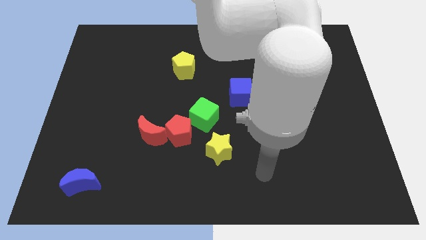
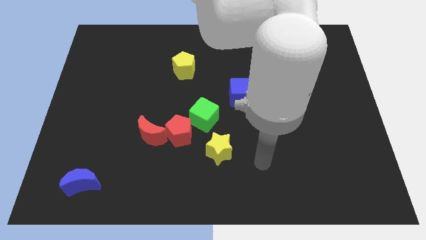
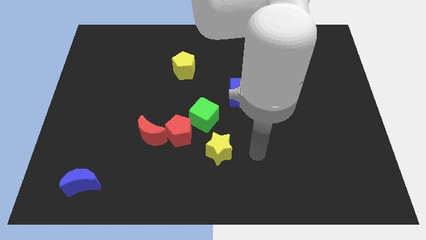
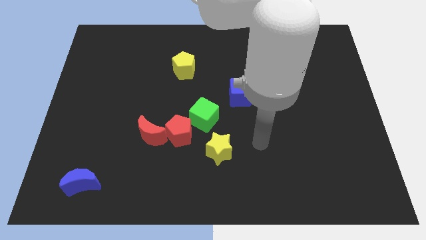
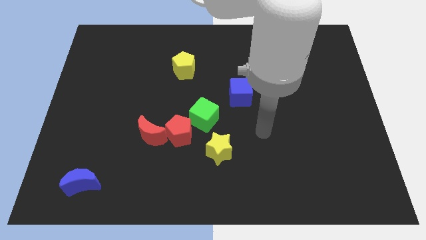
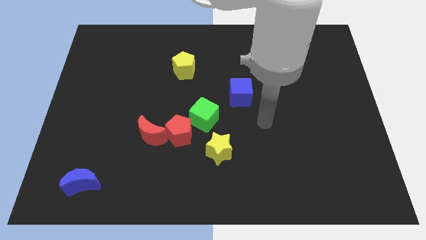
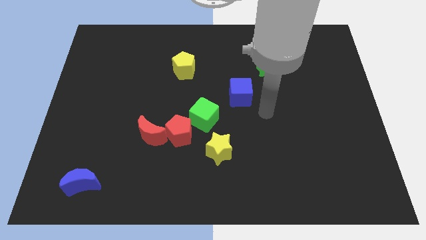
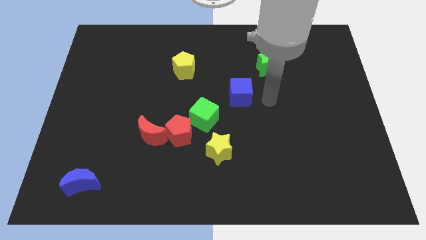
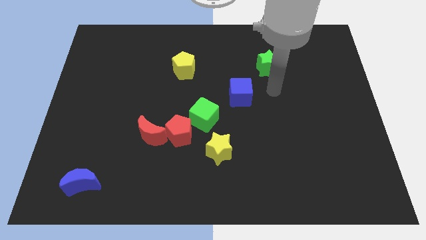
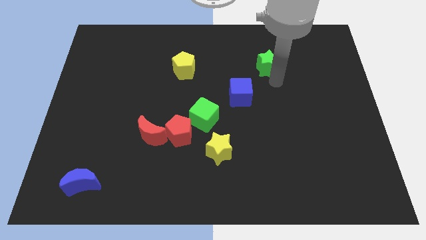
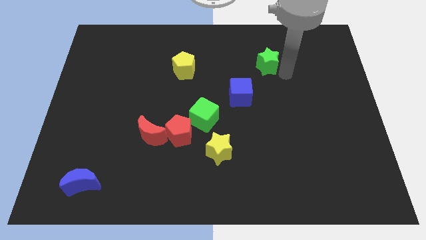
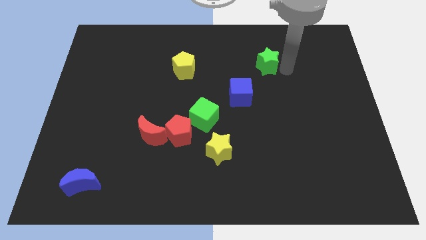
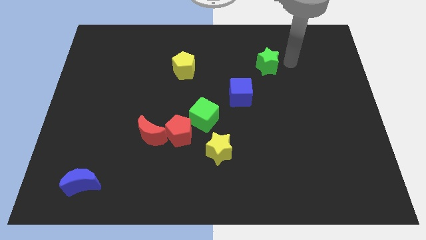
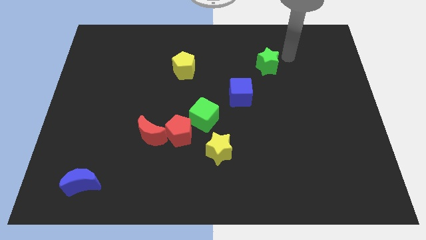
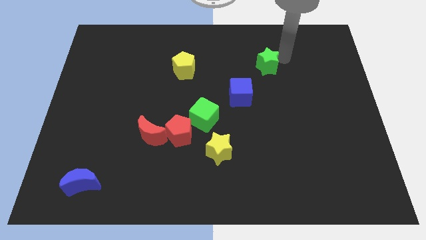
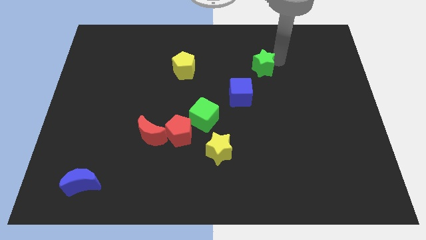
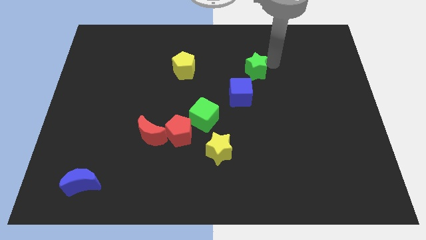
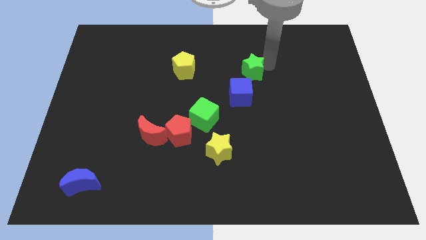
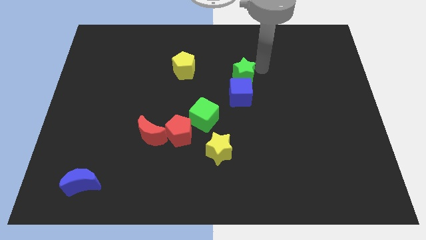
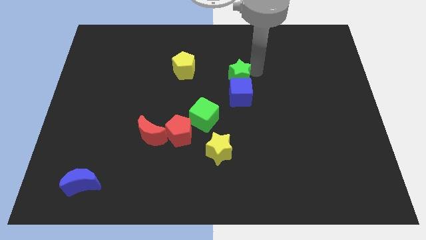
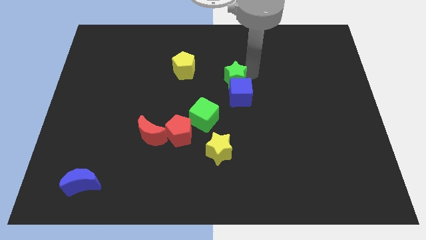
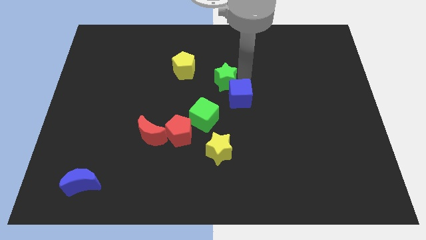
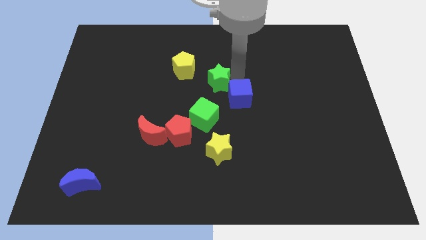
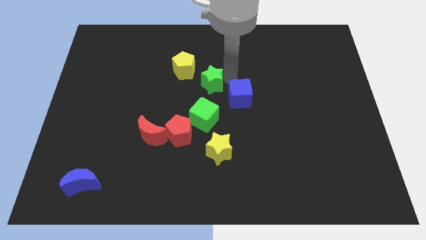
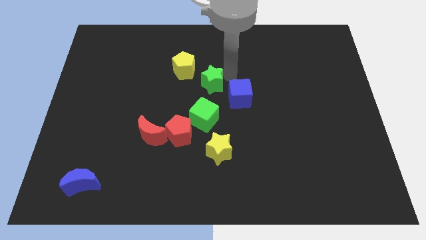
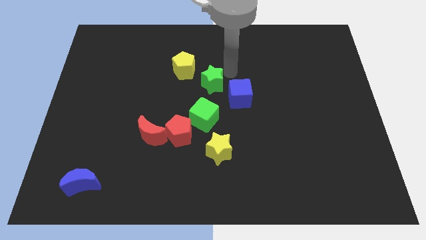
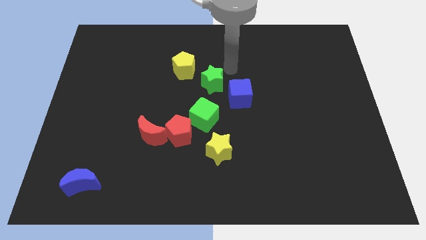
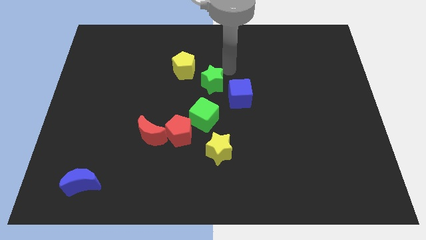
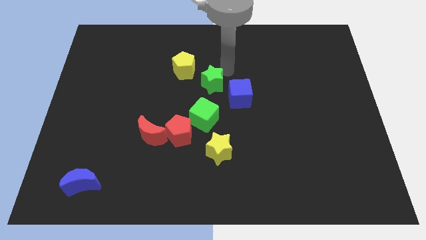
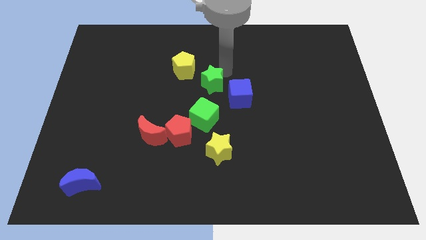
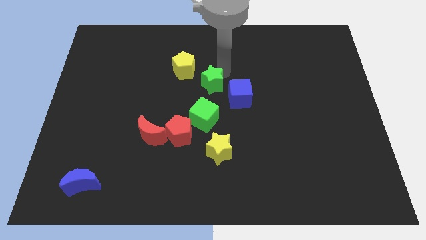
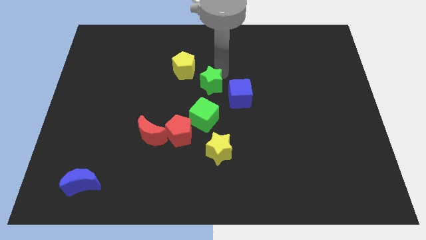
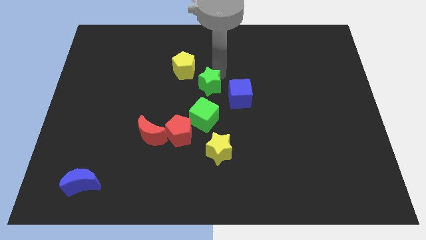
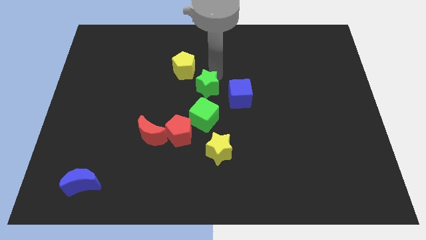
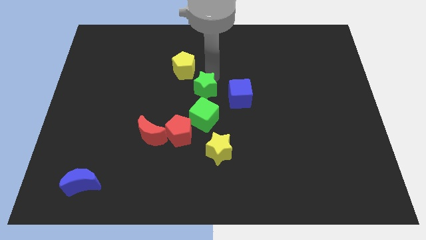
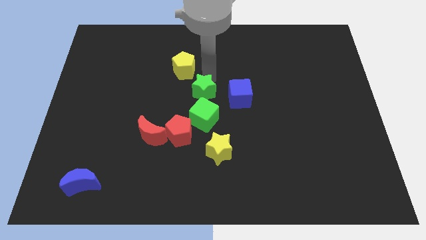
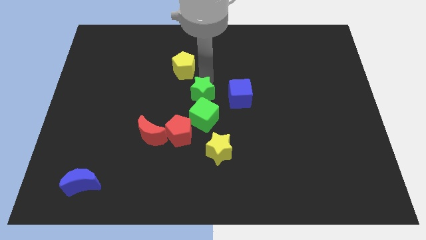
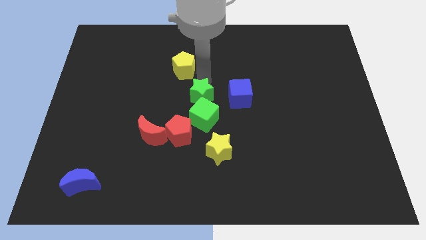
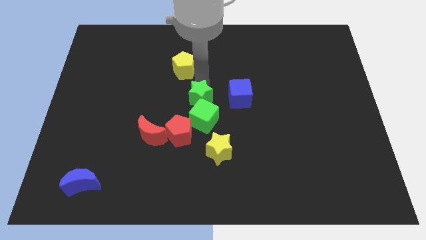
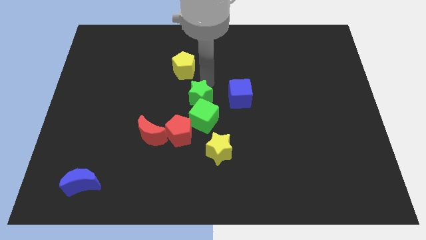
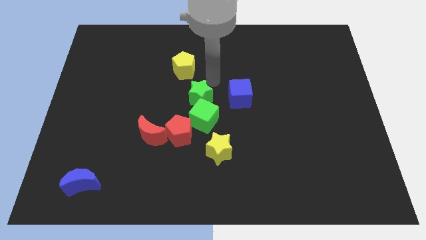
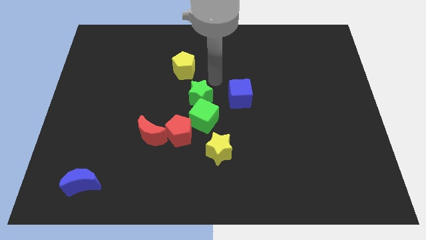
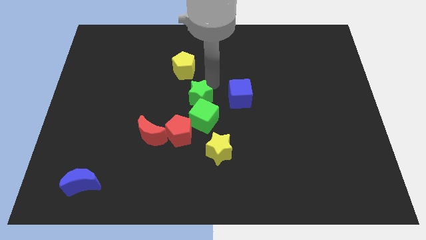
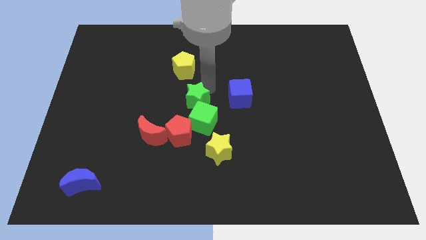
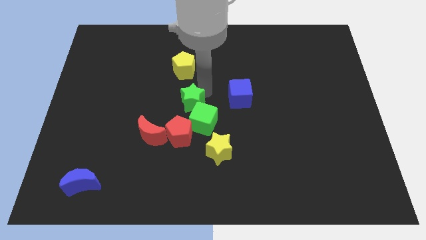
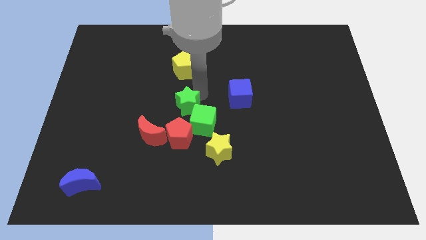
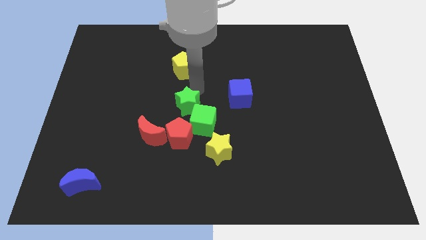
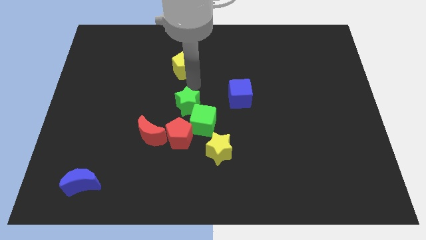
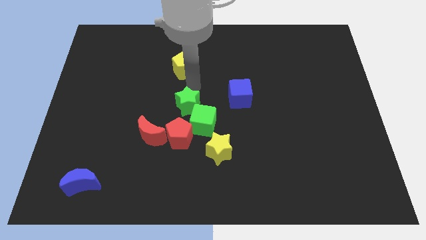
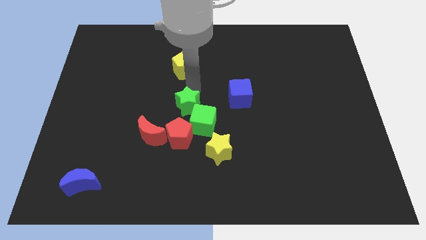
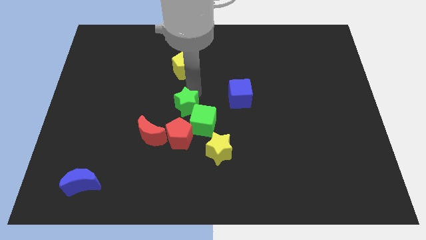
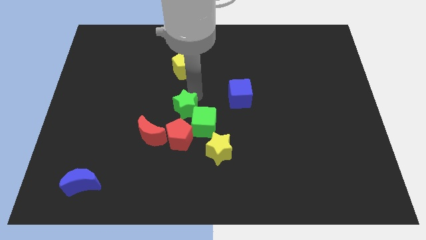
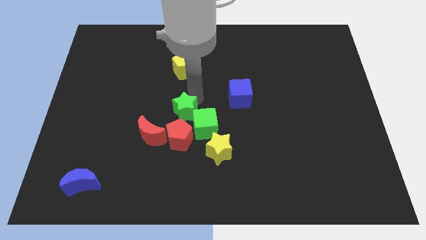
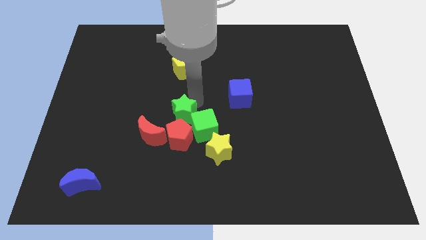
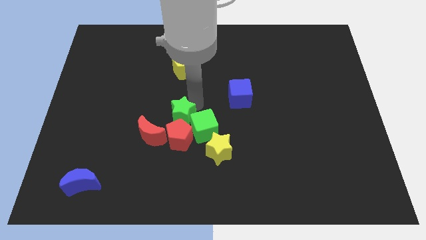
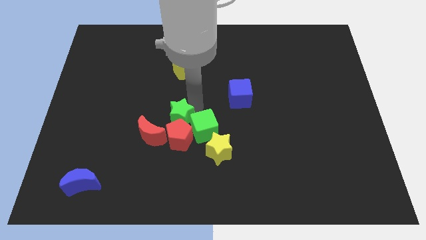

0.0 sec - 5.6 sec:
put the green star to the red pentagon

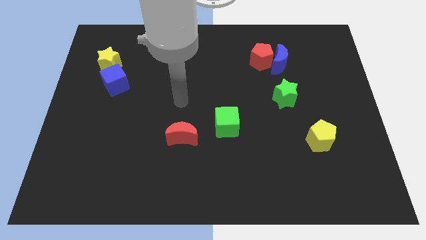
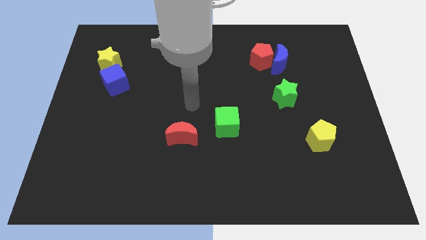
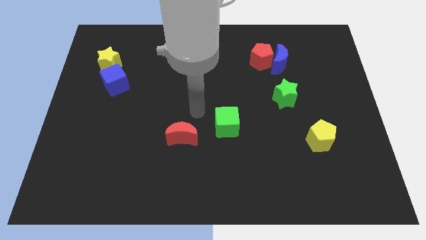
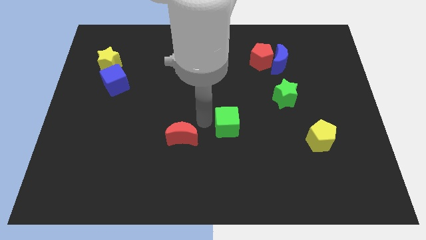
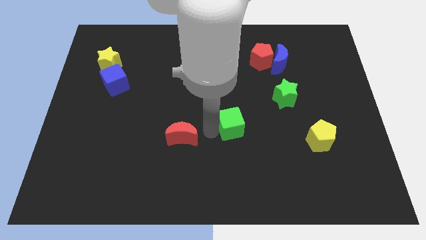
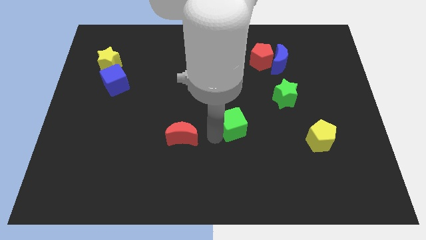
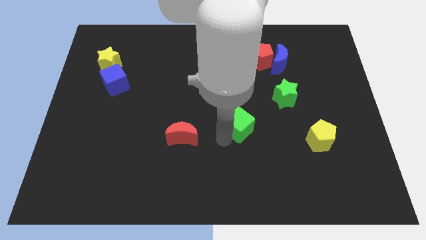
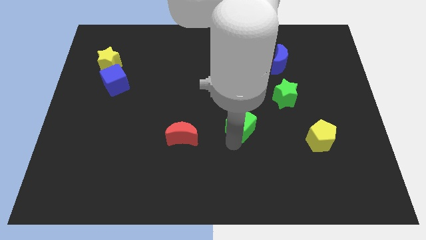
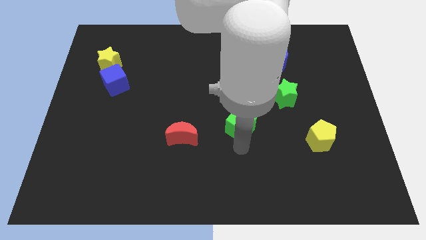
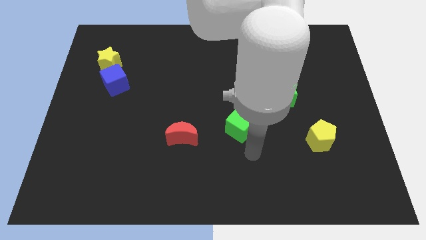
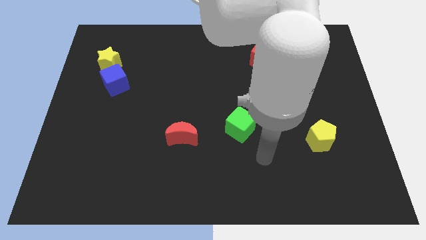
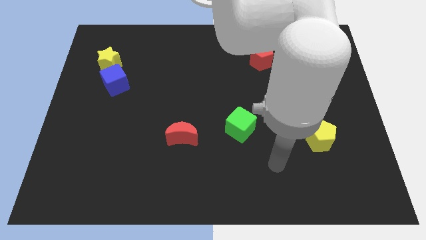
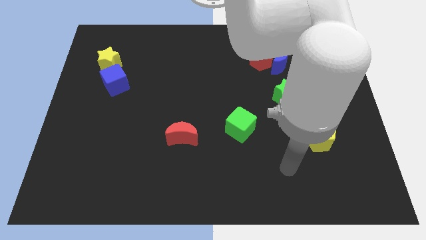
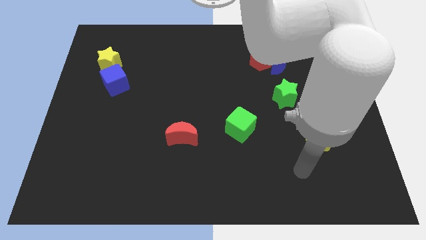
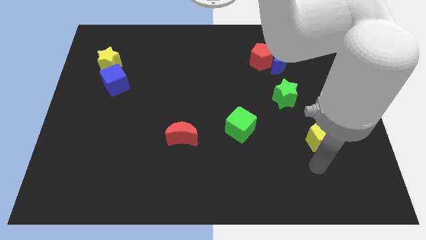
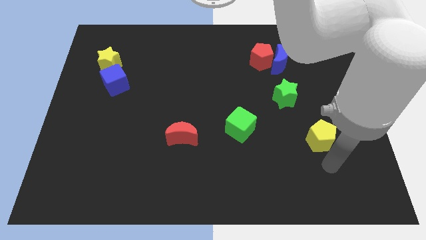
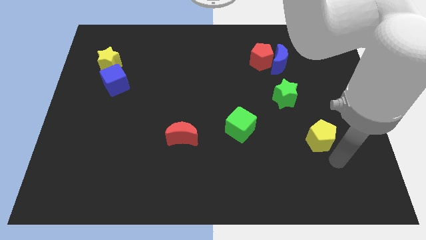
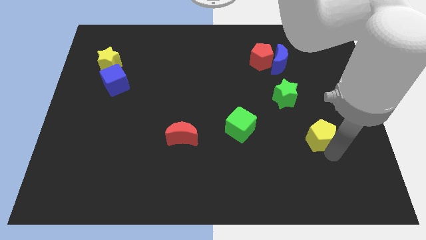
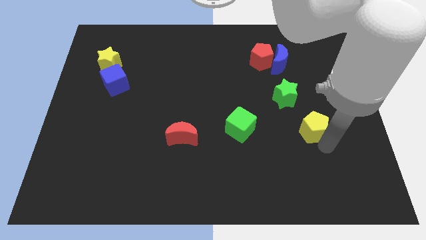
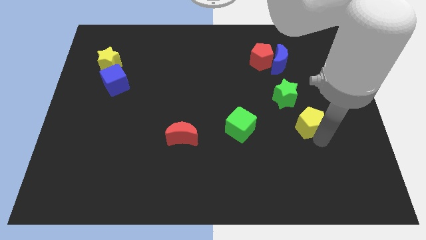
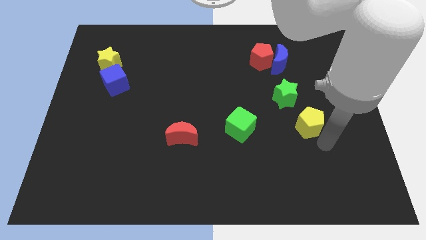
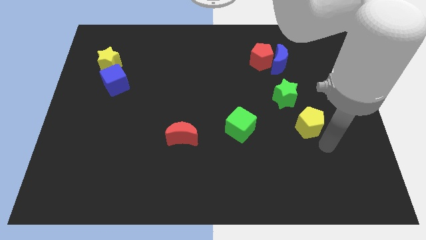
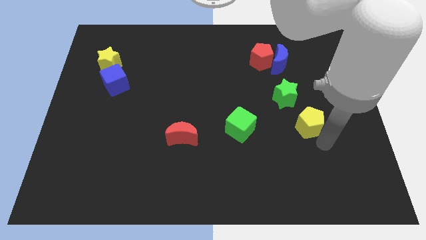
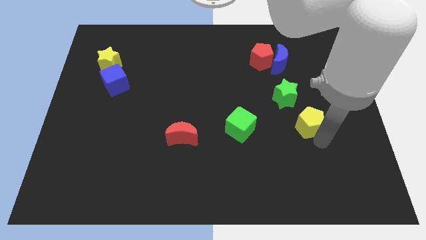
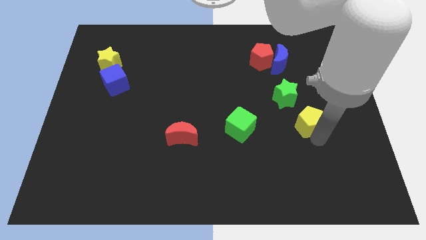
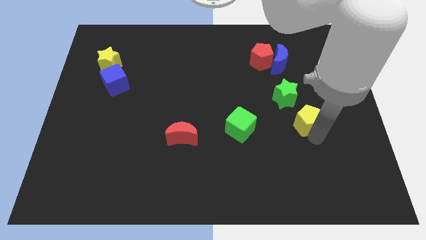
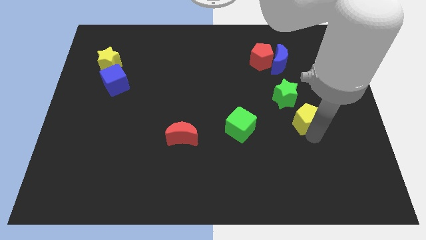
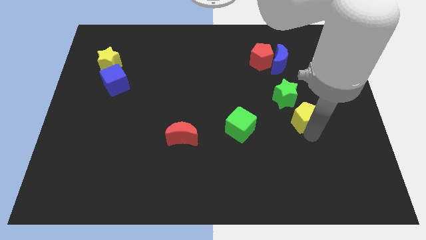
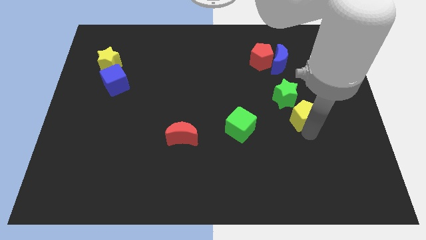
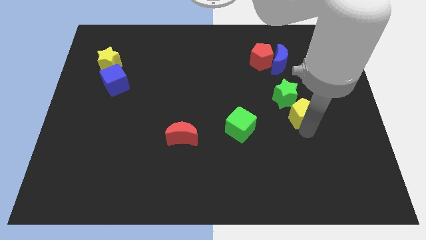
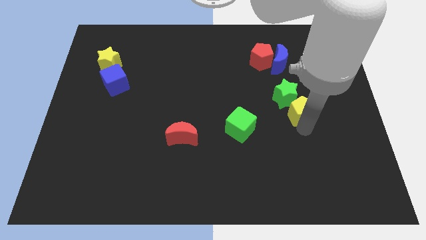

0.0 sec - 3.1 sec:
push the yellow pentagon to the green star
